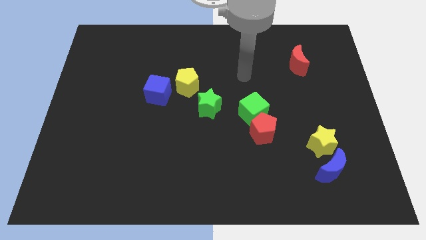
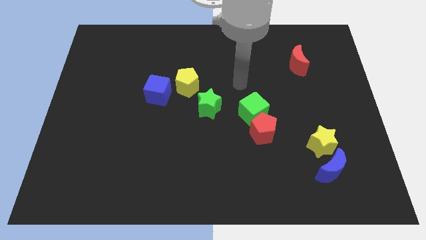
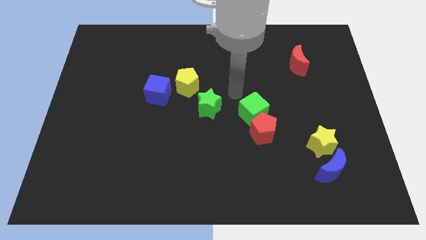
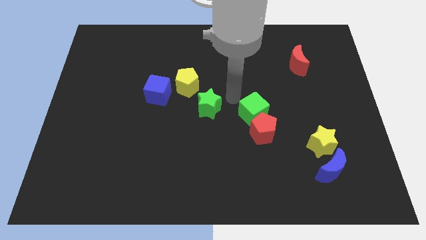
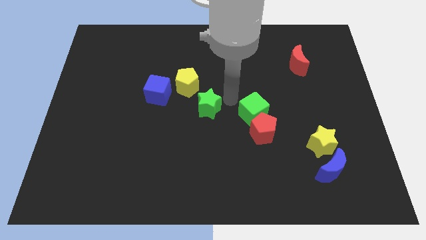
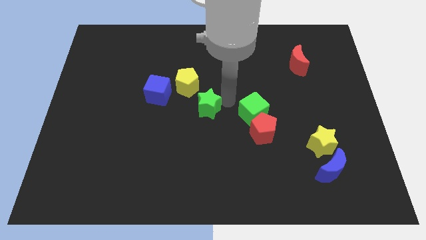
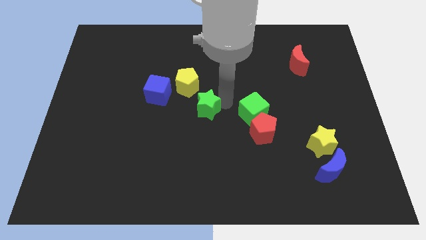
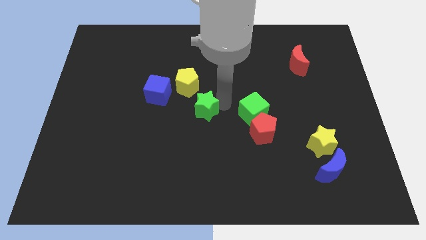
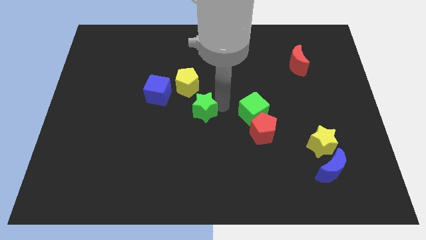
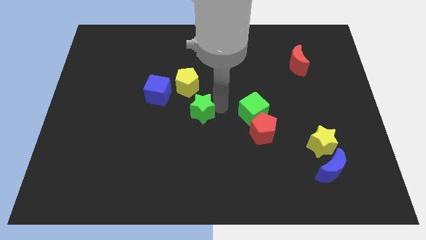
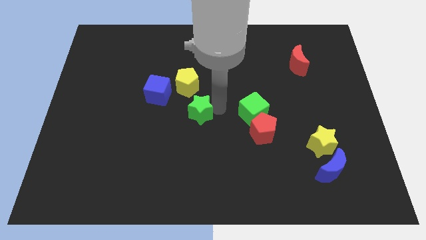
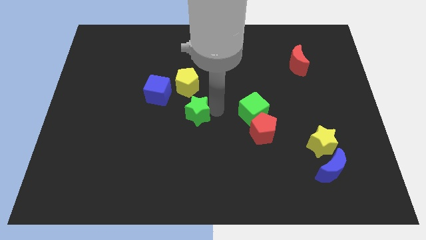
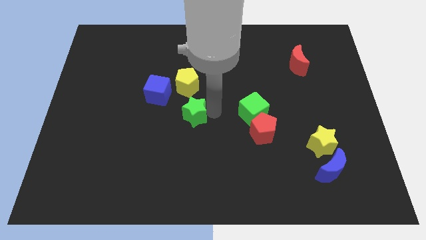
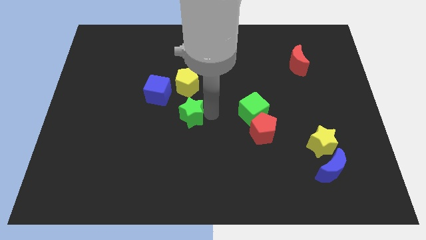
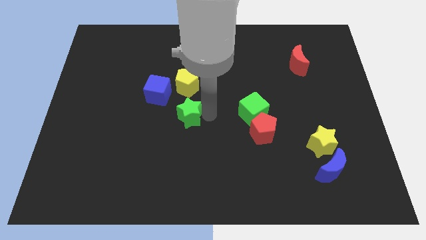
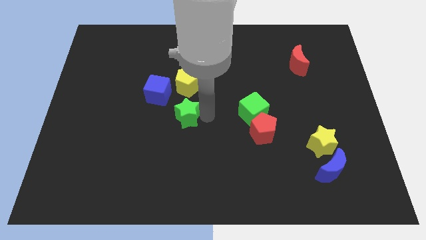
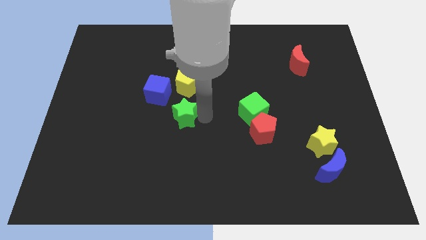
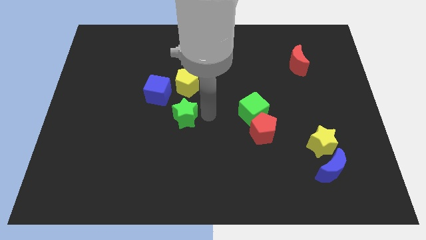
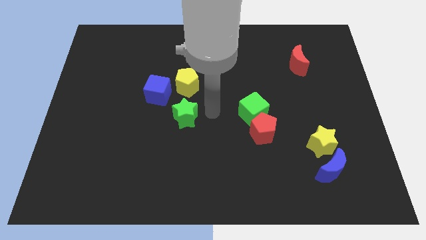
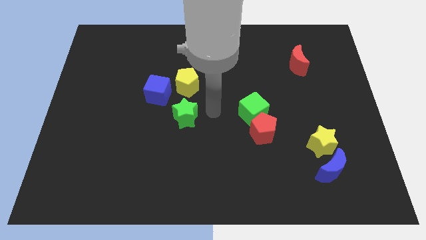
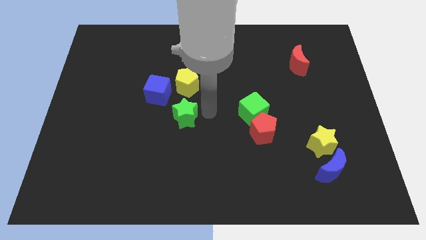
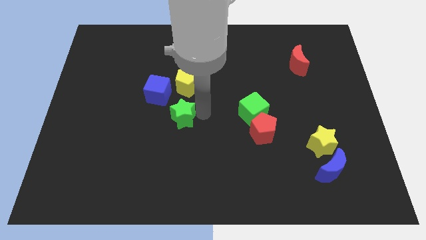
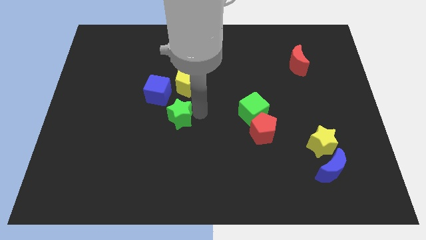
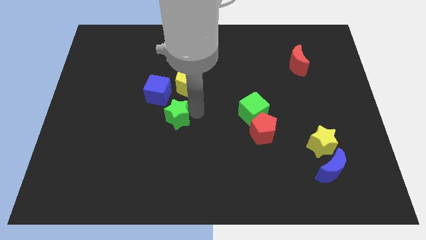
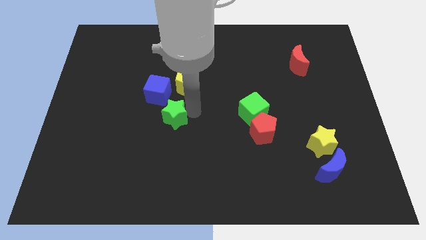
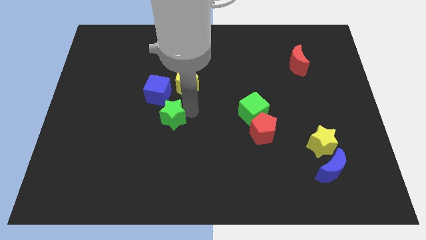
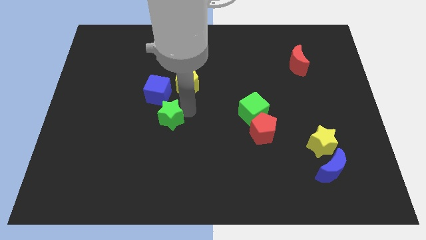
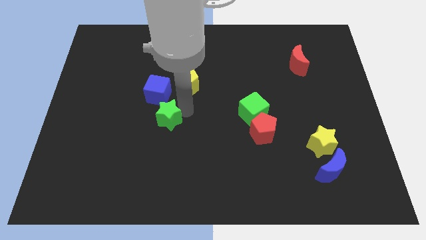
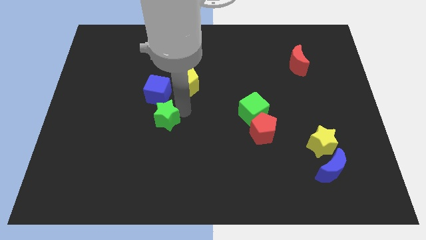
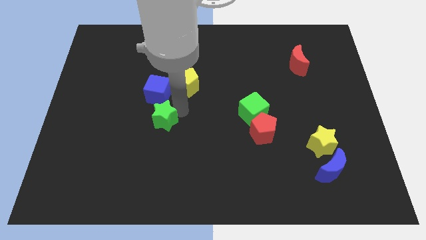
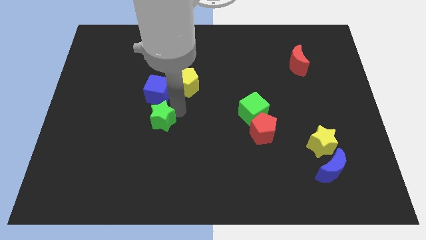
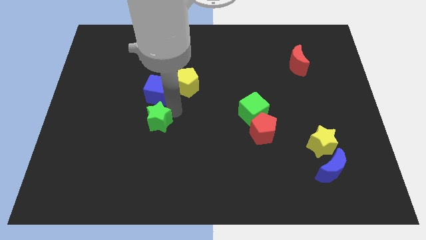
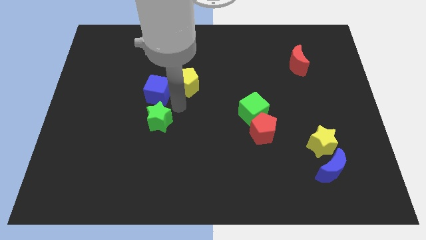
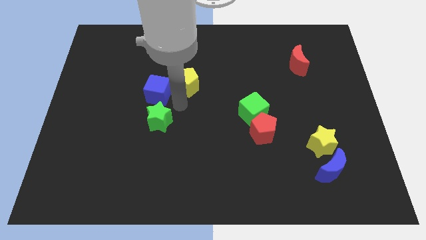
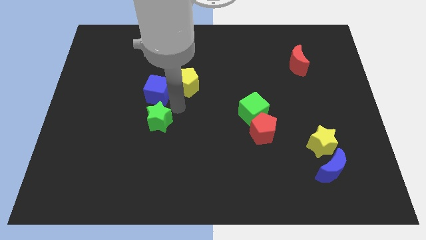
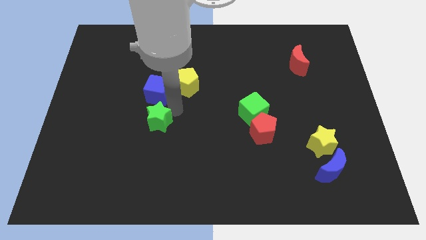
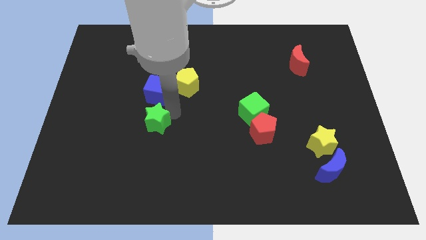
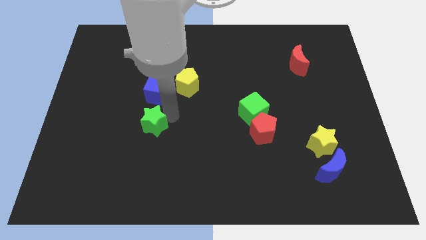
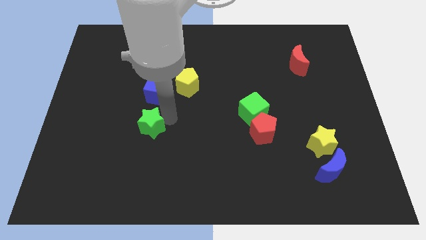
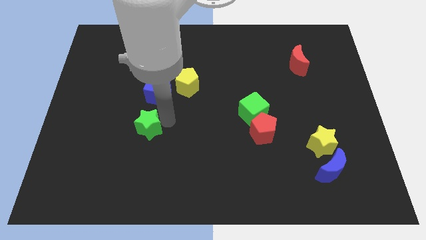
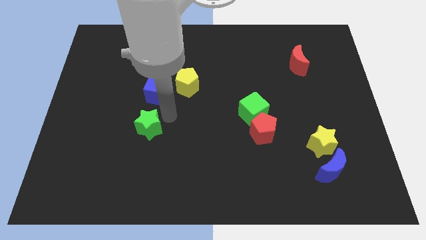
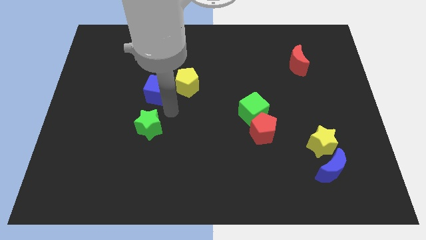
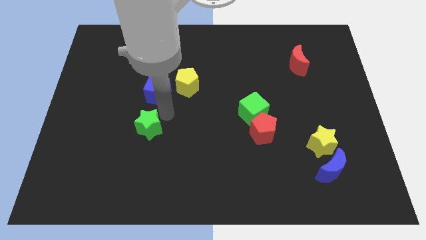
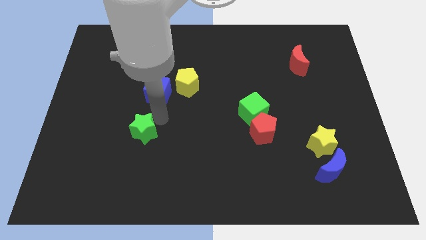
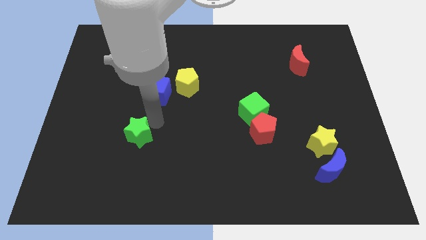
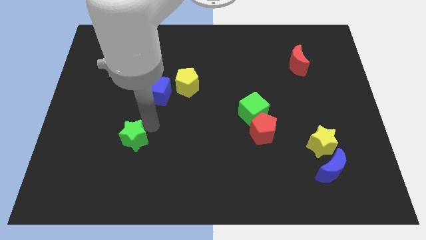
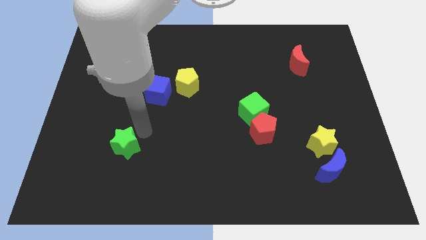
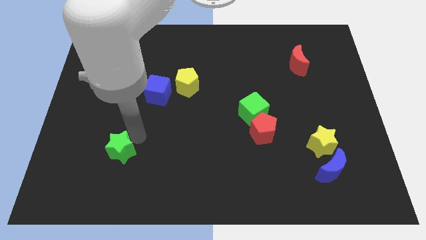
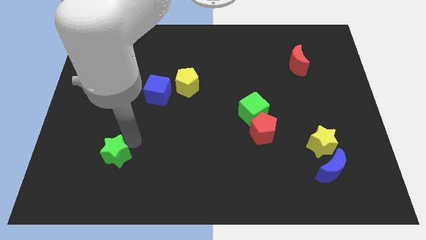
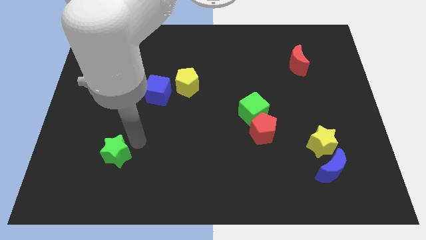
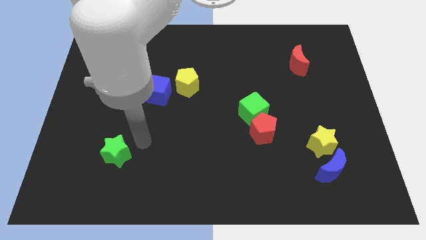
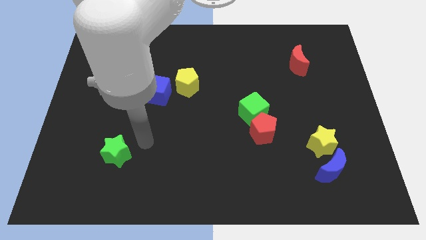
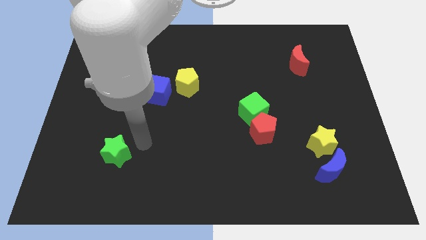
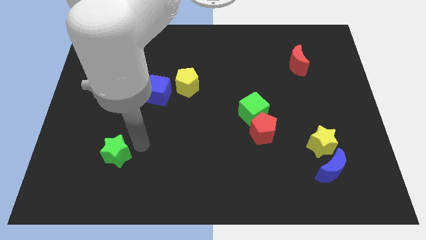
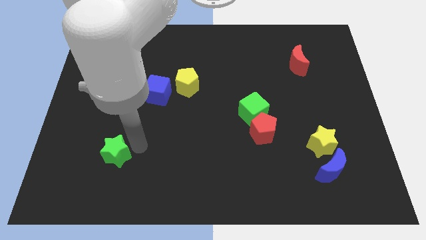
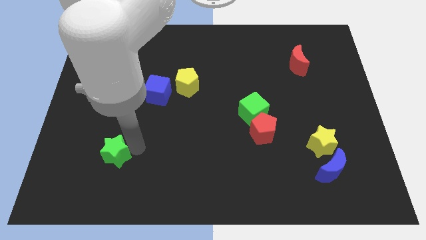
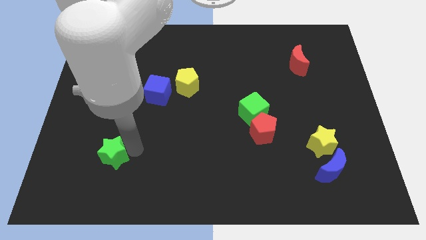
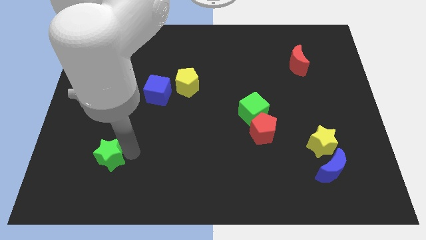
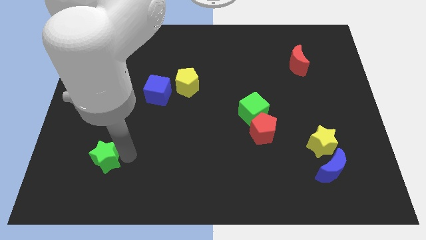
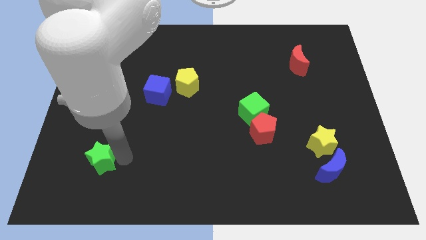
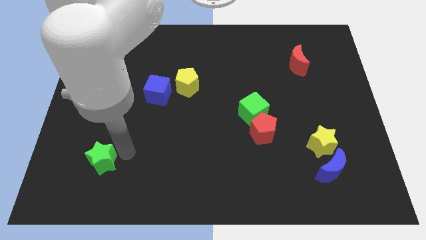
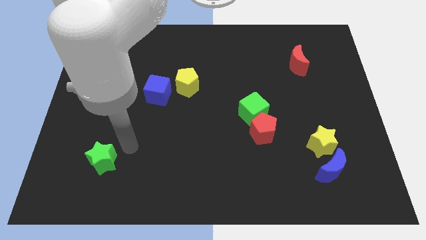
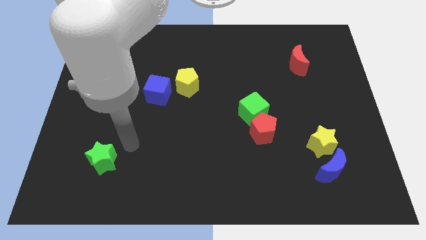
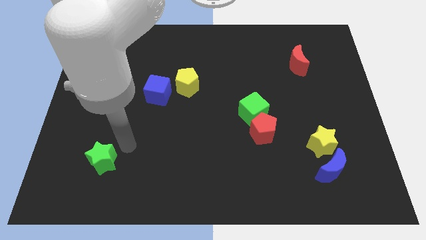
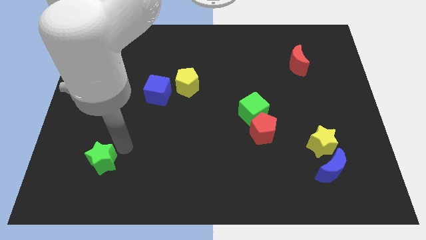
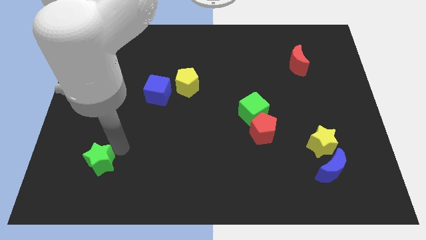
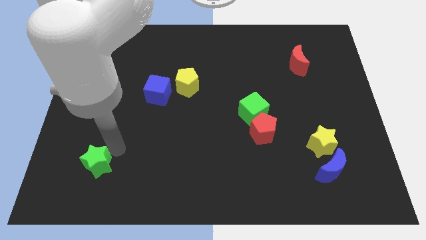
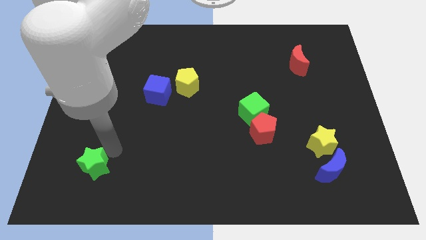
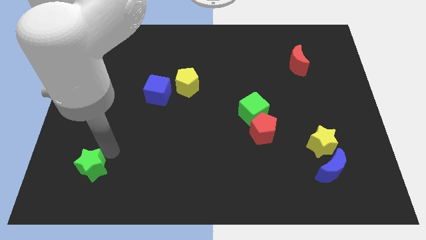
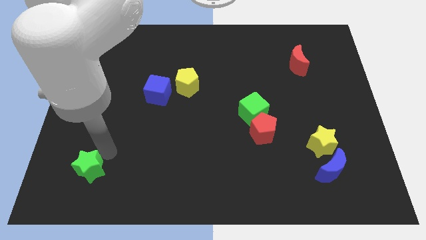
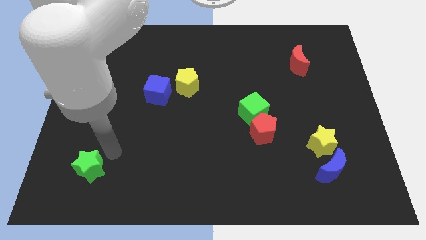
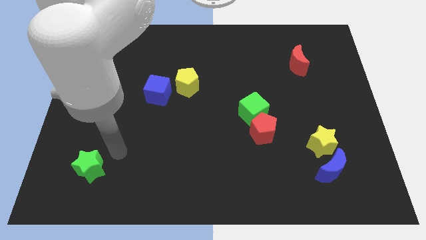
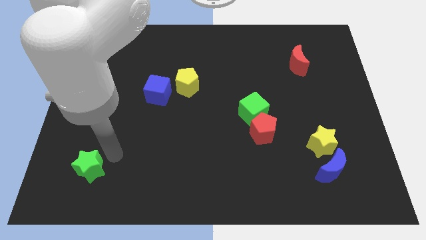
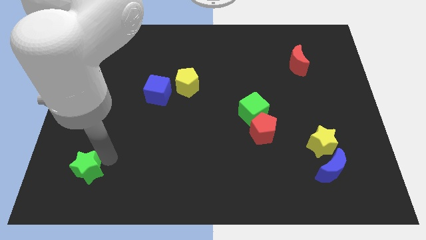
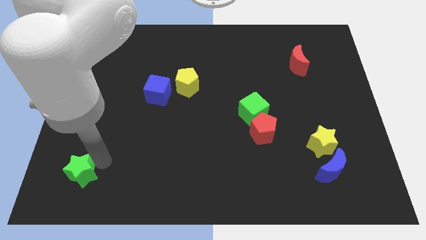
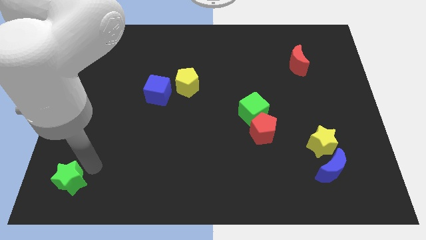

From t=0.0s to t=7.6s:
move the green star to the bottom left of the board
